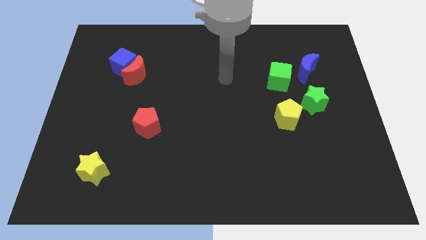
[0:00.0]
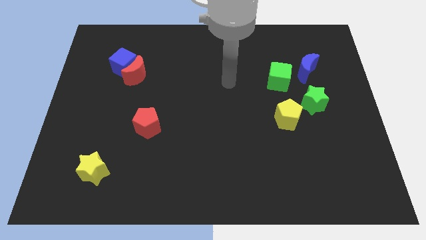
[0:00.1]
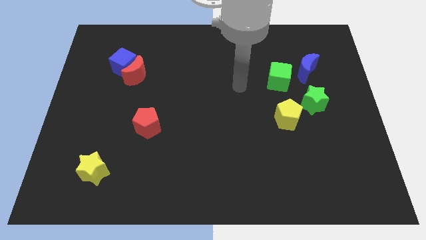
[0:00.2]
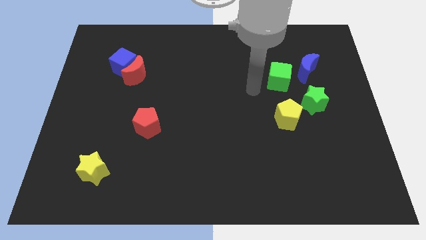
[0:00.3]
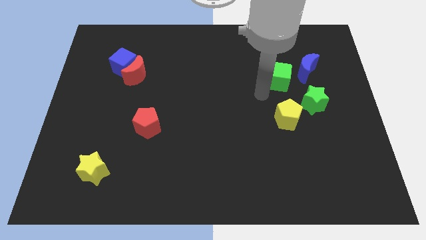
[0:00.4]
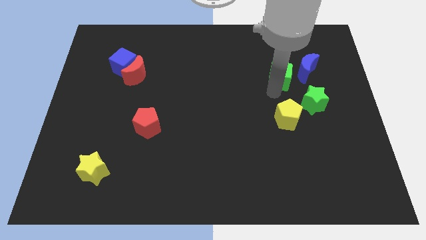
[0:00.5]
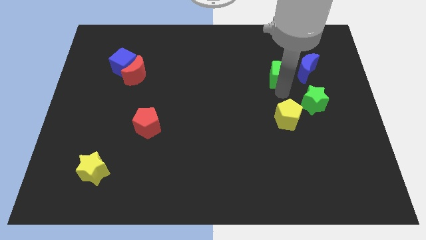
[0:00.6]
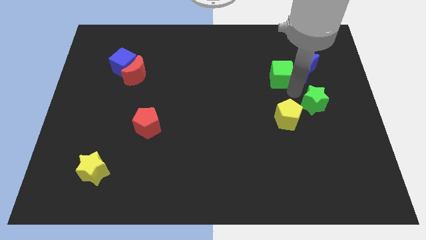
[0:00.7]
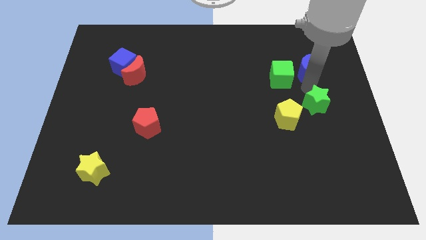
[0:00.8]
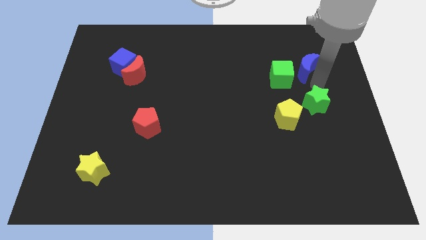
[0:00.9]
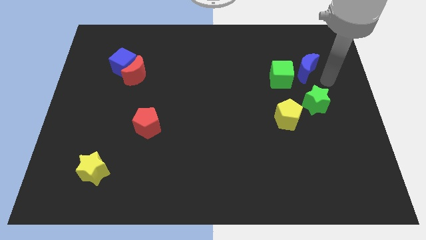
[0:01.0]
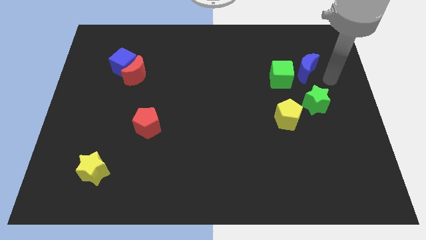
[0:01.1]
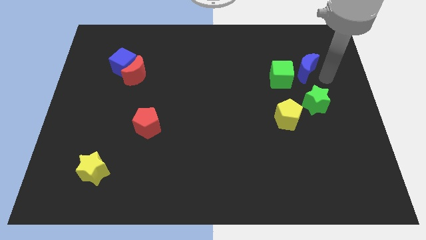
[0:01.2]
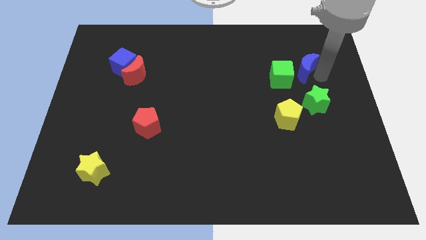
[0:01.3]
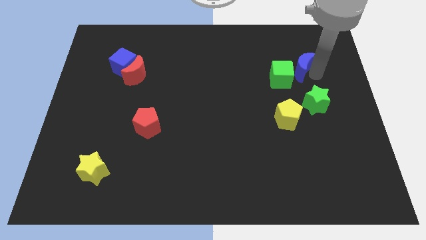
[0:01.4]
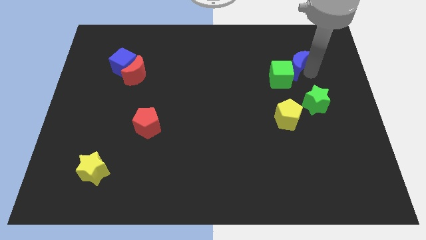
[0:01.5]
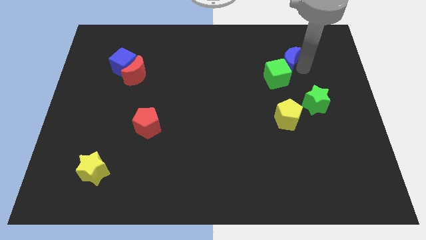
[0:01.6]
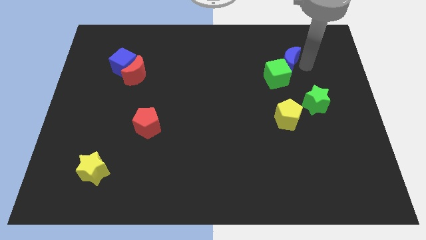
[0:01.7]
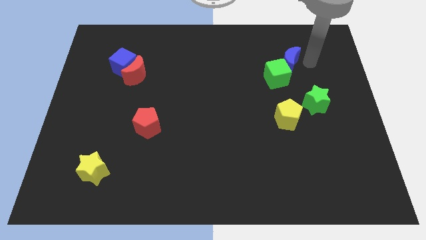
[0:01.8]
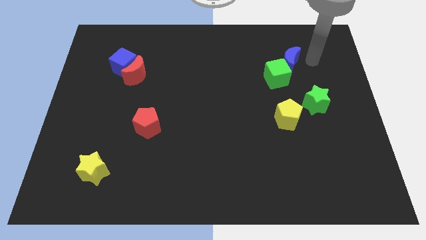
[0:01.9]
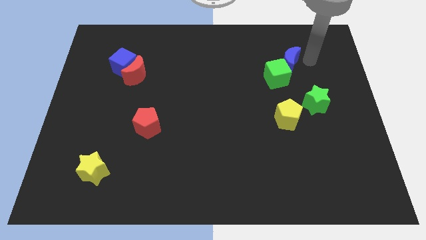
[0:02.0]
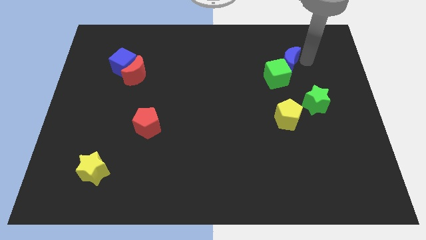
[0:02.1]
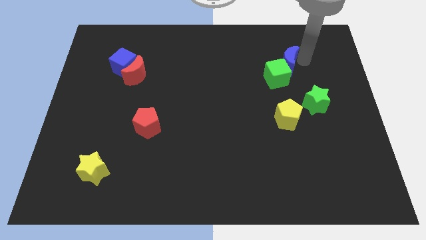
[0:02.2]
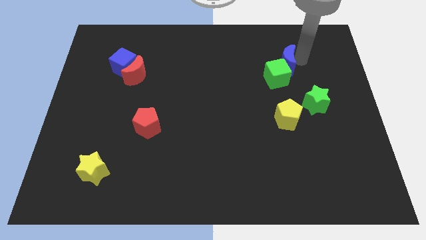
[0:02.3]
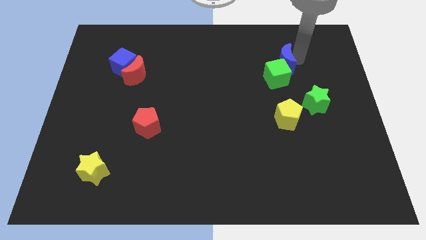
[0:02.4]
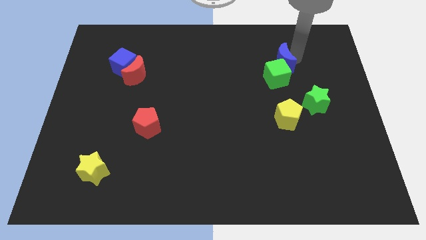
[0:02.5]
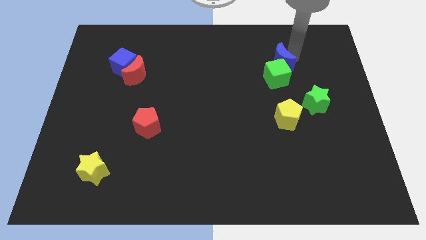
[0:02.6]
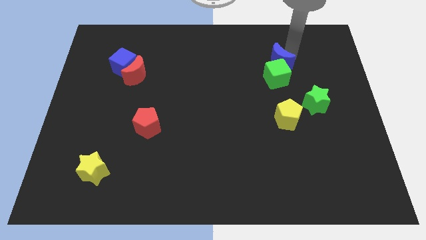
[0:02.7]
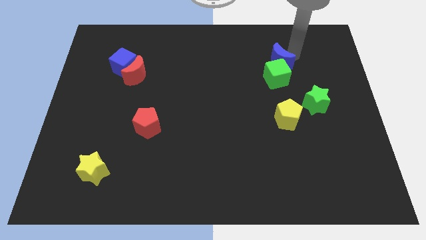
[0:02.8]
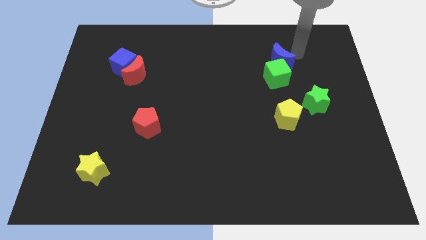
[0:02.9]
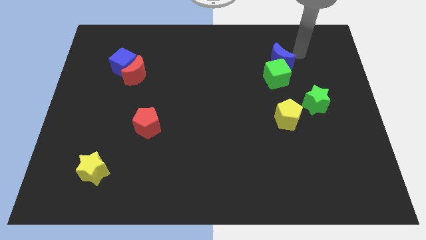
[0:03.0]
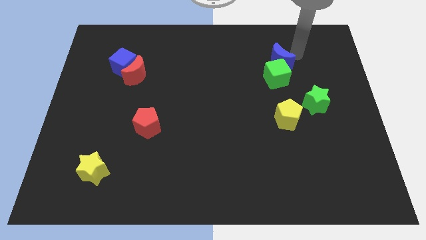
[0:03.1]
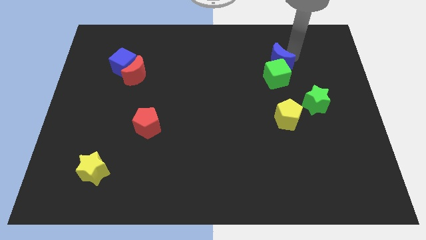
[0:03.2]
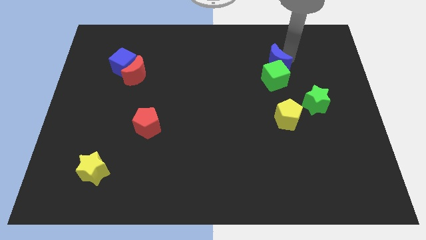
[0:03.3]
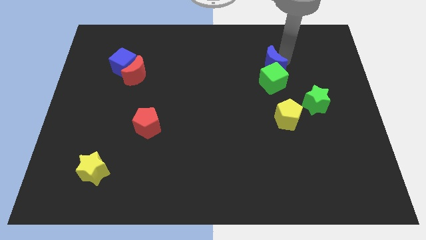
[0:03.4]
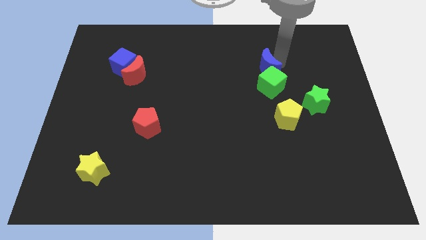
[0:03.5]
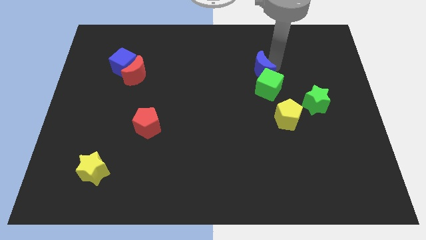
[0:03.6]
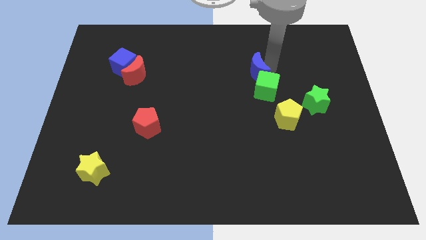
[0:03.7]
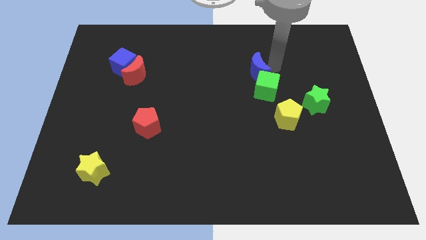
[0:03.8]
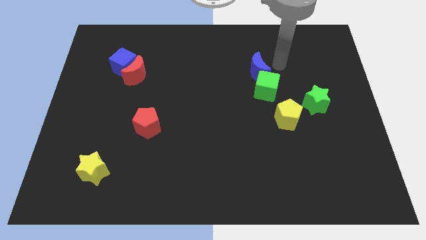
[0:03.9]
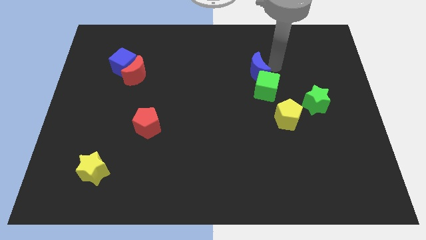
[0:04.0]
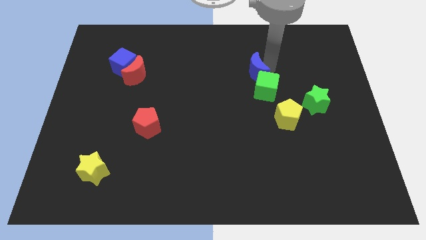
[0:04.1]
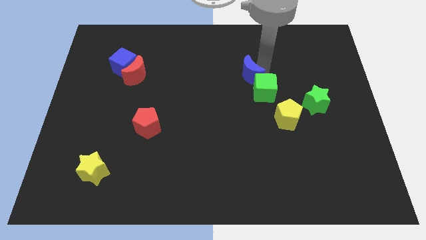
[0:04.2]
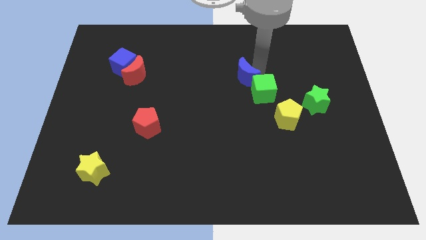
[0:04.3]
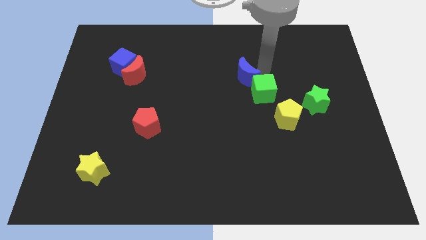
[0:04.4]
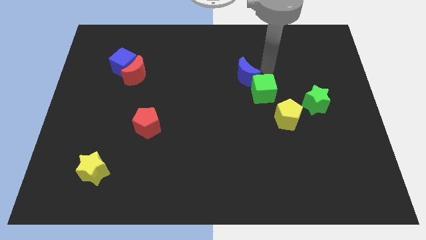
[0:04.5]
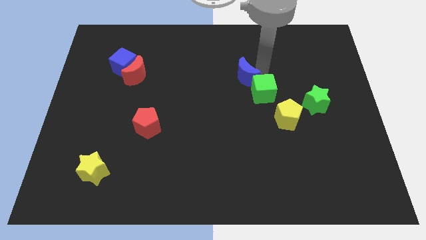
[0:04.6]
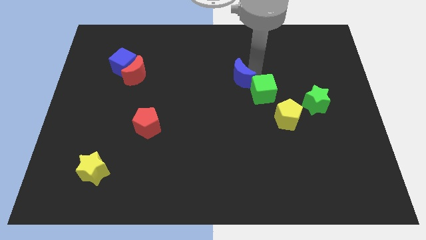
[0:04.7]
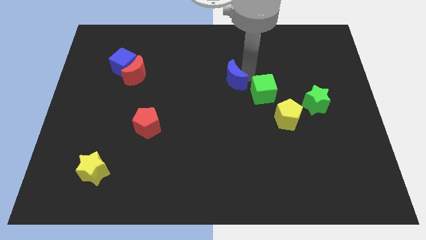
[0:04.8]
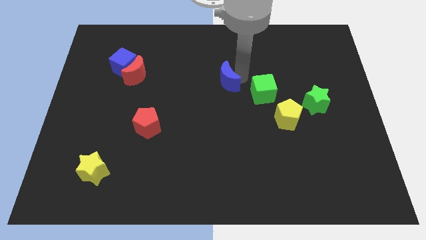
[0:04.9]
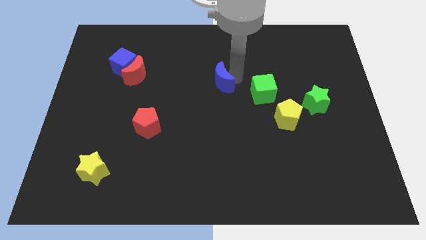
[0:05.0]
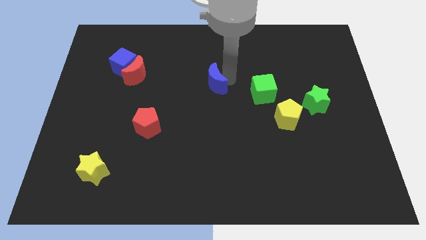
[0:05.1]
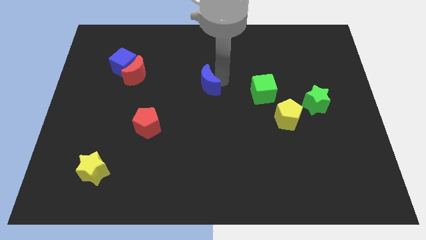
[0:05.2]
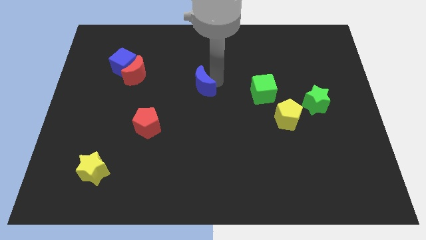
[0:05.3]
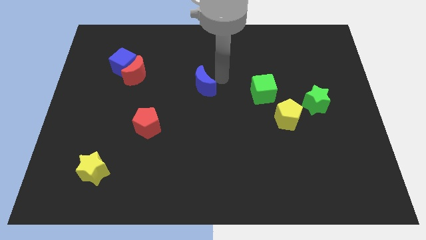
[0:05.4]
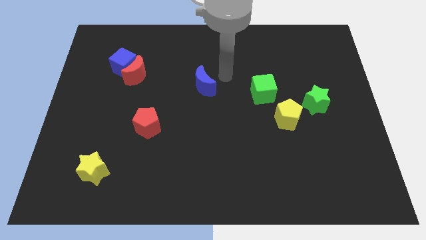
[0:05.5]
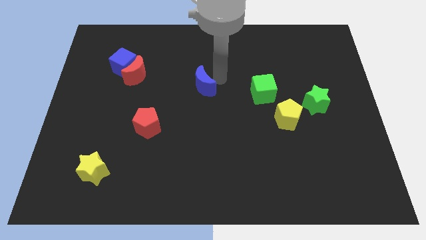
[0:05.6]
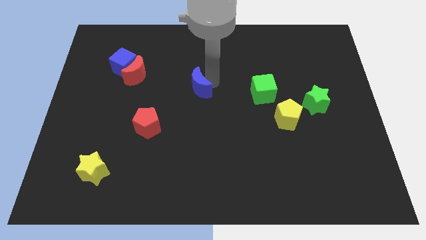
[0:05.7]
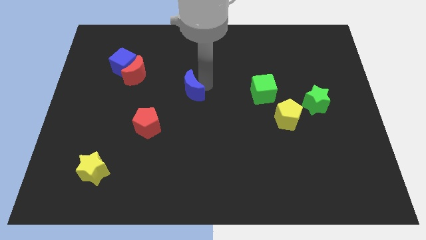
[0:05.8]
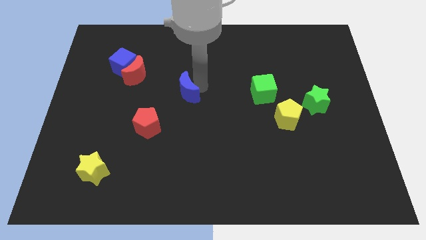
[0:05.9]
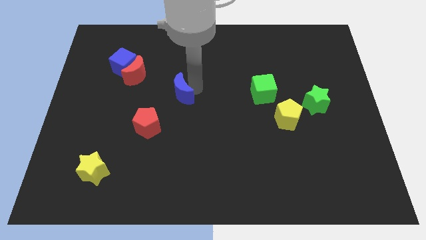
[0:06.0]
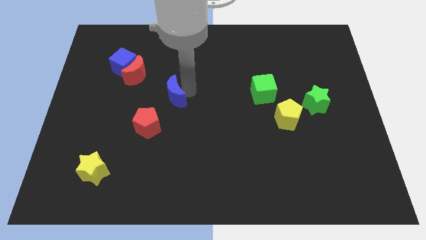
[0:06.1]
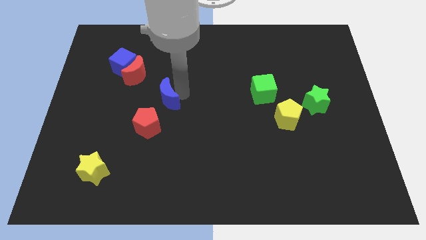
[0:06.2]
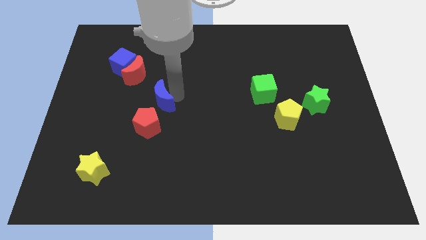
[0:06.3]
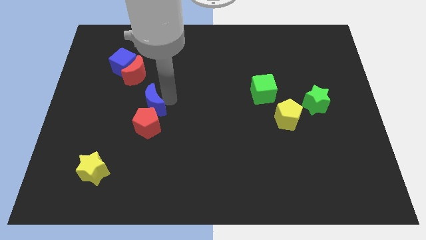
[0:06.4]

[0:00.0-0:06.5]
put the blue moon to the top left side of the red pentagon

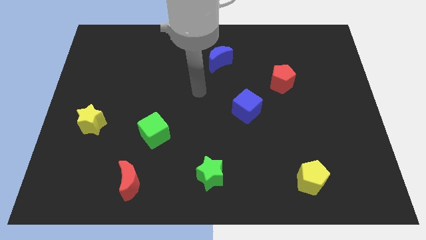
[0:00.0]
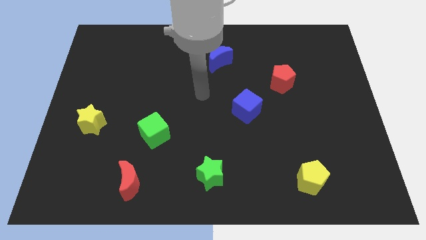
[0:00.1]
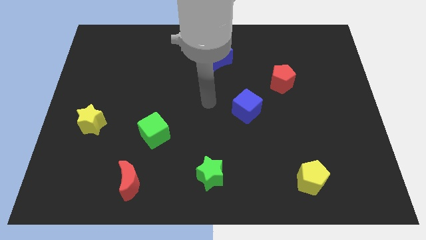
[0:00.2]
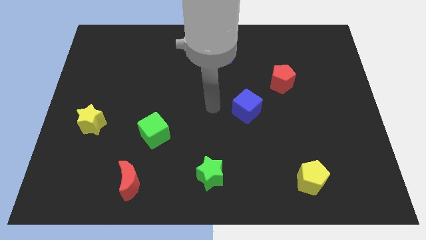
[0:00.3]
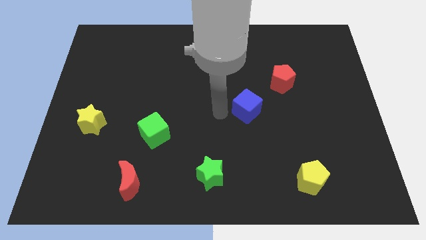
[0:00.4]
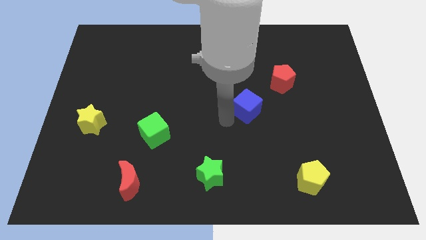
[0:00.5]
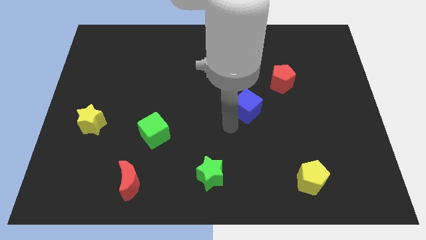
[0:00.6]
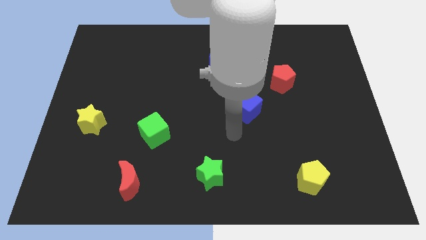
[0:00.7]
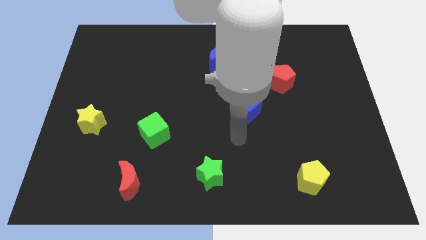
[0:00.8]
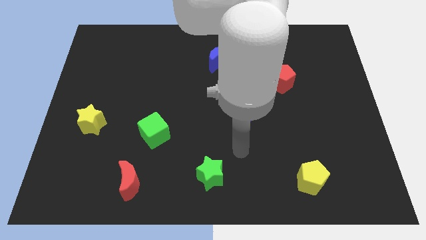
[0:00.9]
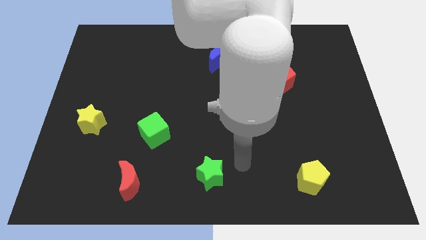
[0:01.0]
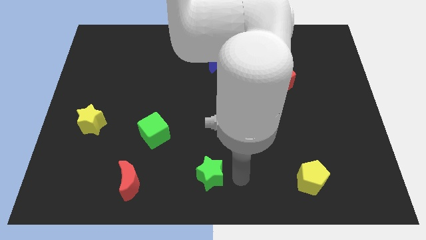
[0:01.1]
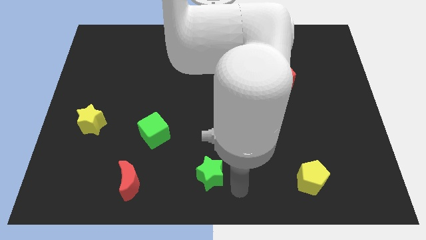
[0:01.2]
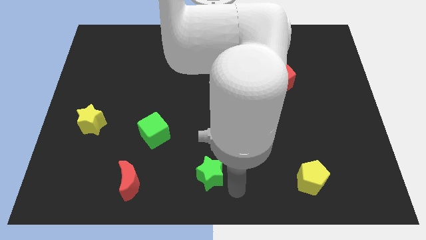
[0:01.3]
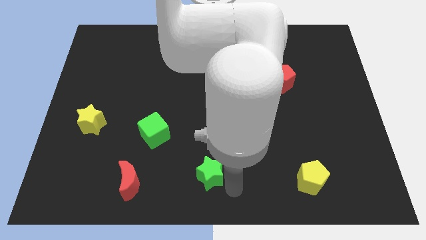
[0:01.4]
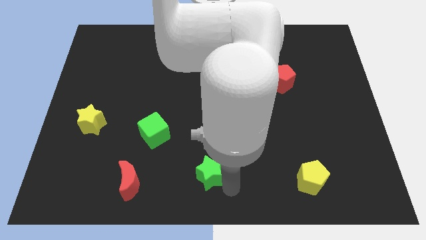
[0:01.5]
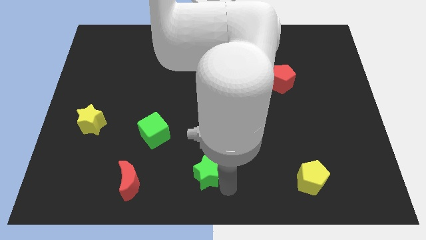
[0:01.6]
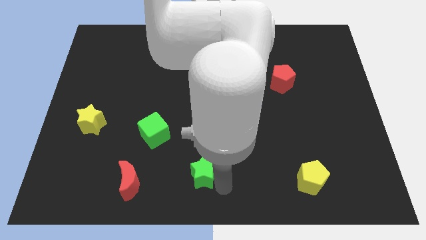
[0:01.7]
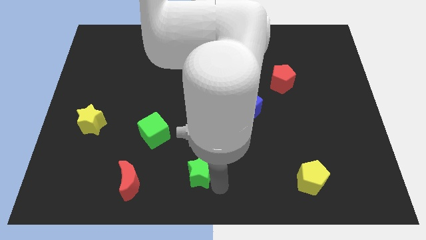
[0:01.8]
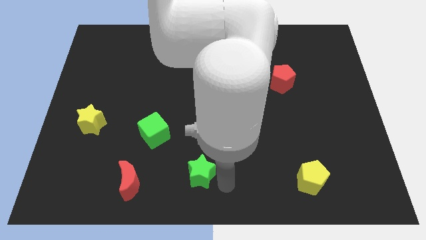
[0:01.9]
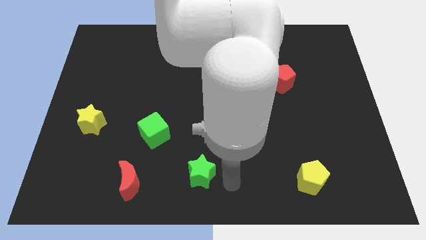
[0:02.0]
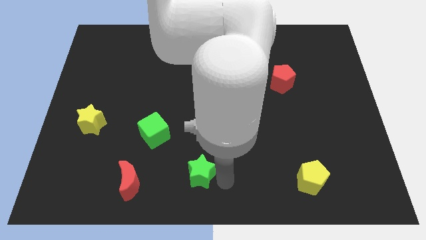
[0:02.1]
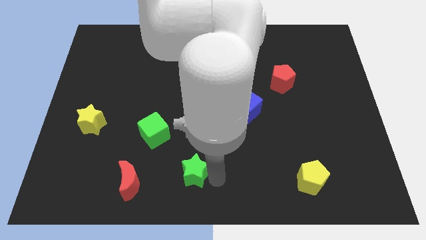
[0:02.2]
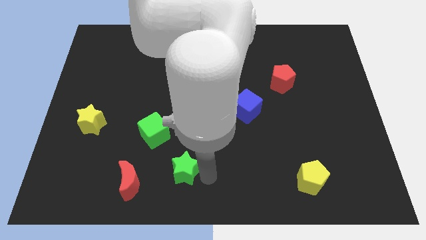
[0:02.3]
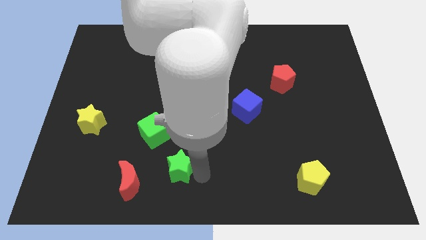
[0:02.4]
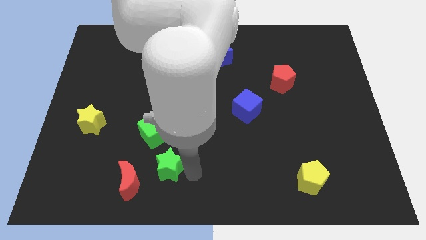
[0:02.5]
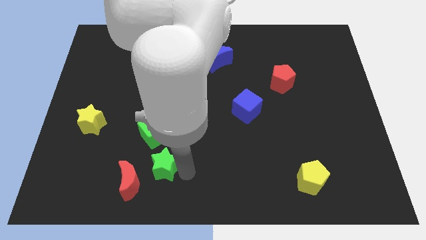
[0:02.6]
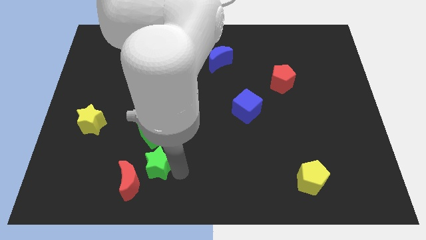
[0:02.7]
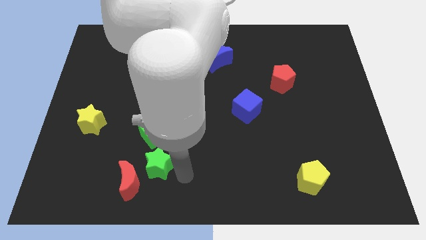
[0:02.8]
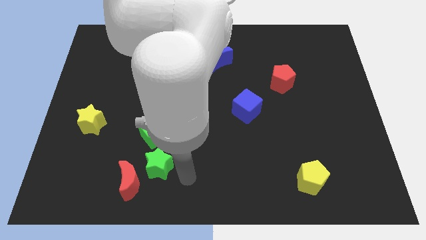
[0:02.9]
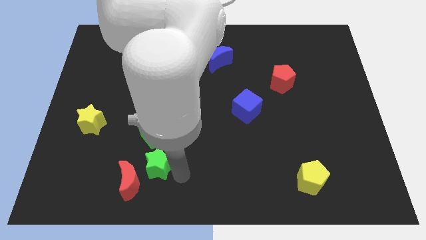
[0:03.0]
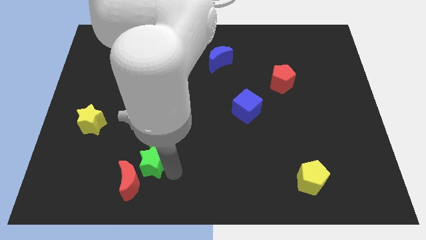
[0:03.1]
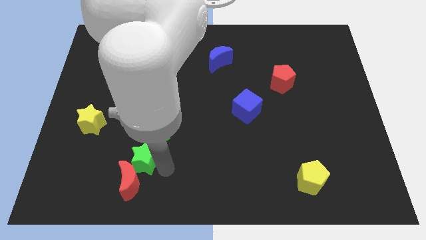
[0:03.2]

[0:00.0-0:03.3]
slide the green star diagonally down and to the left of the green cube
